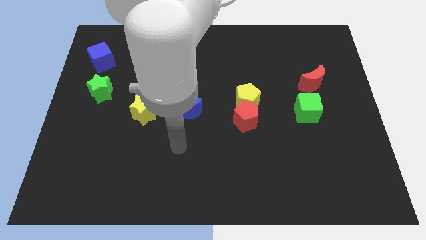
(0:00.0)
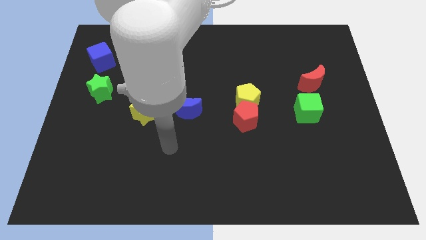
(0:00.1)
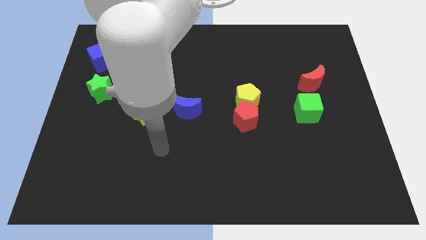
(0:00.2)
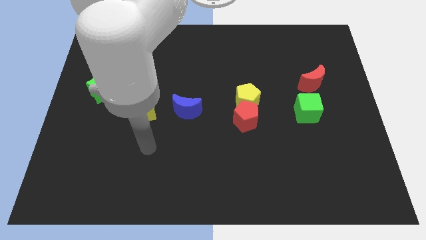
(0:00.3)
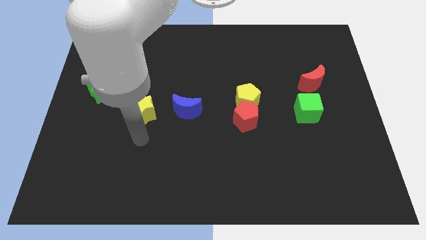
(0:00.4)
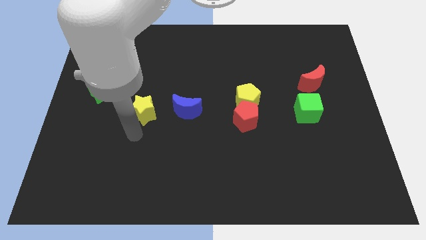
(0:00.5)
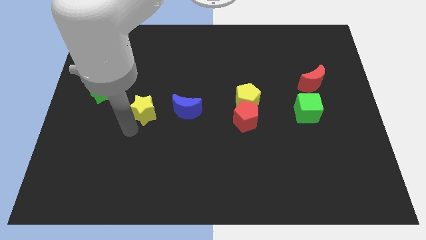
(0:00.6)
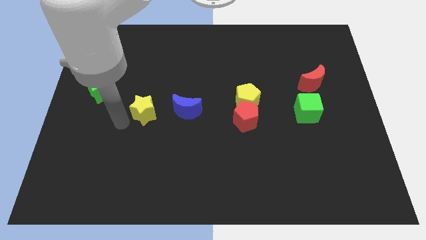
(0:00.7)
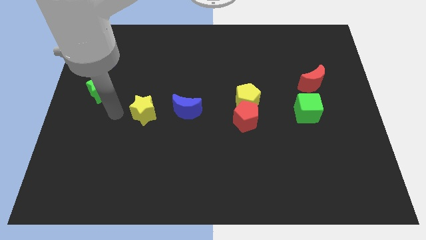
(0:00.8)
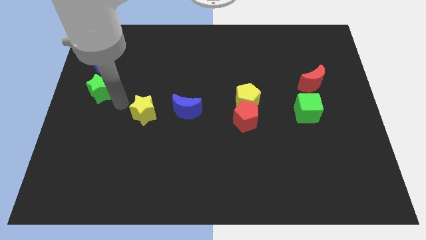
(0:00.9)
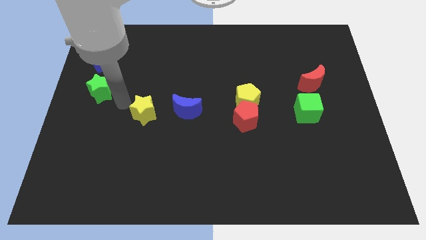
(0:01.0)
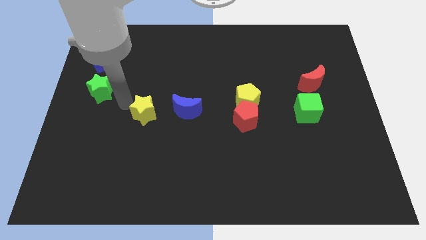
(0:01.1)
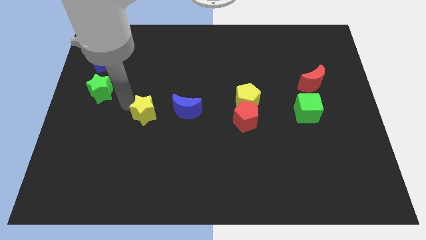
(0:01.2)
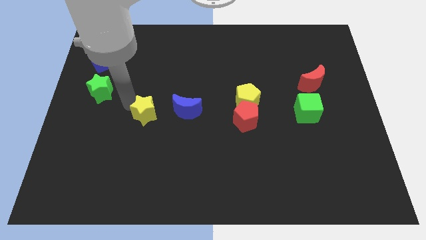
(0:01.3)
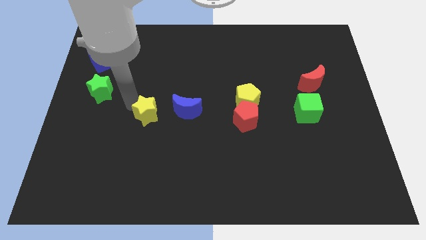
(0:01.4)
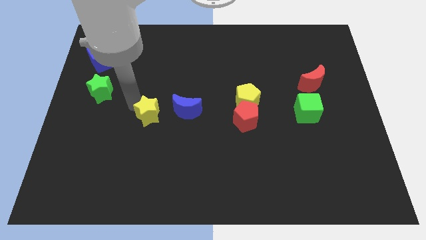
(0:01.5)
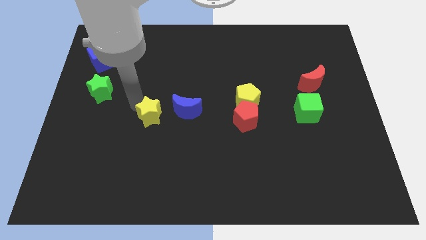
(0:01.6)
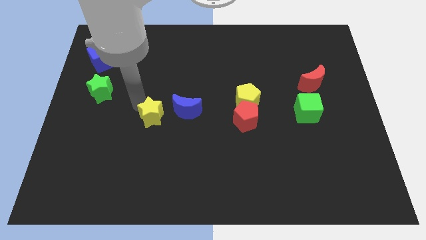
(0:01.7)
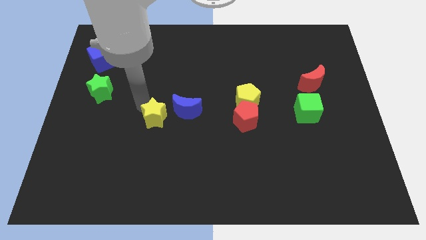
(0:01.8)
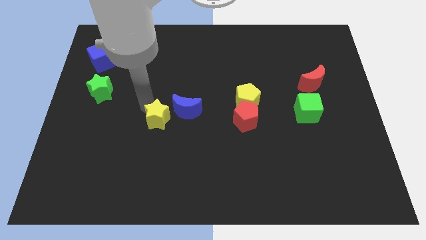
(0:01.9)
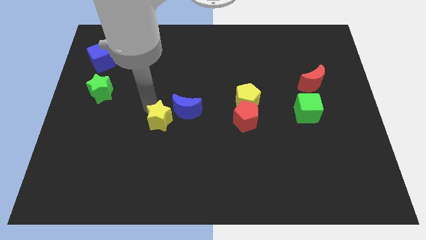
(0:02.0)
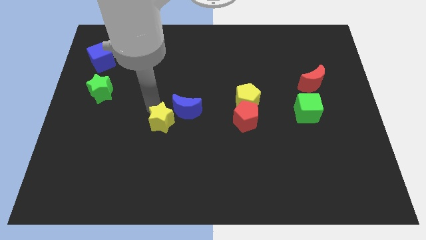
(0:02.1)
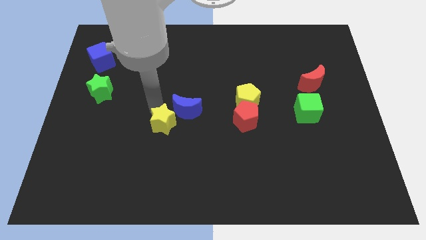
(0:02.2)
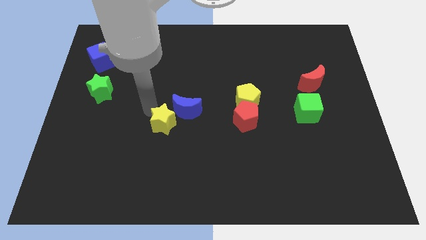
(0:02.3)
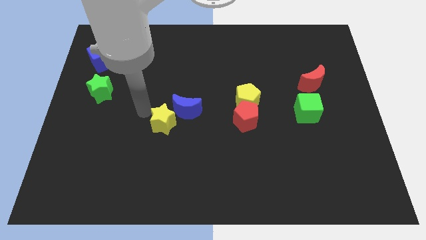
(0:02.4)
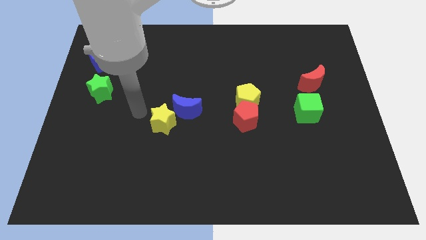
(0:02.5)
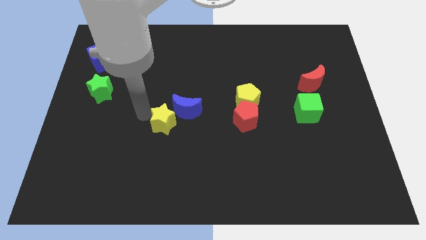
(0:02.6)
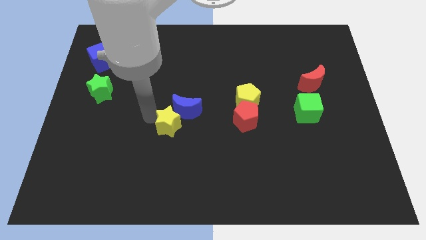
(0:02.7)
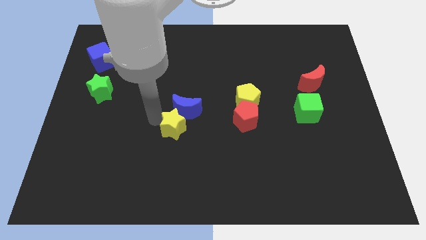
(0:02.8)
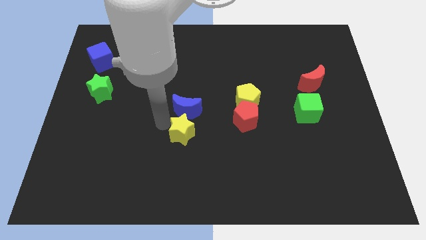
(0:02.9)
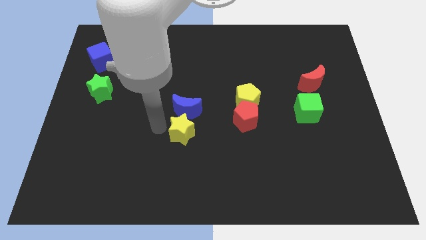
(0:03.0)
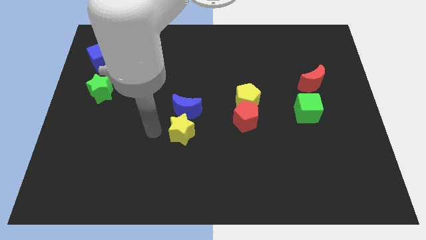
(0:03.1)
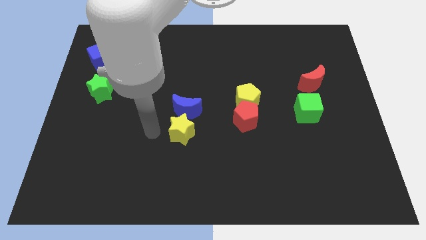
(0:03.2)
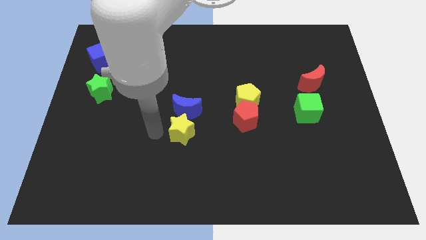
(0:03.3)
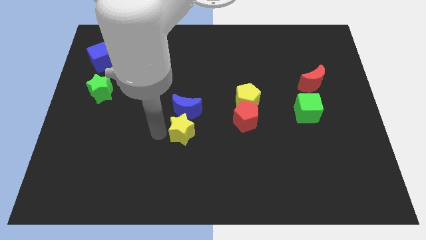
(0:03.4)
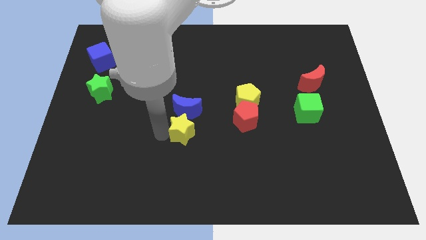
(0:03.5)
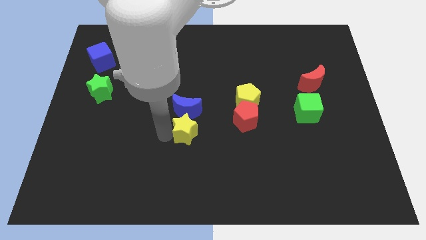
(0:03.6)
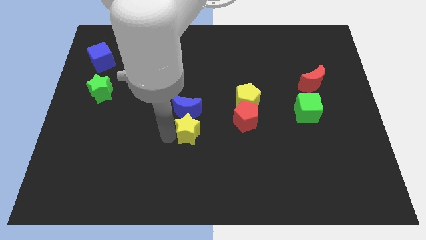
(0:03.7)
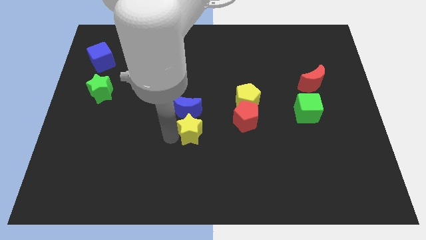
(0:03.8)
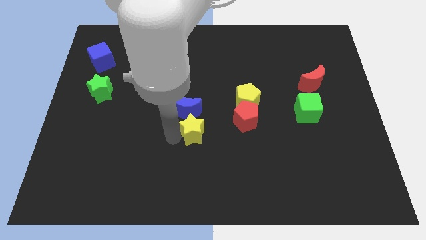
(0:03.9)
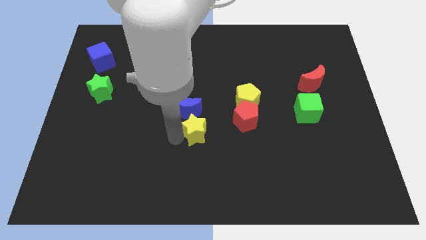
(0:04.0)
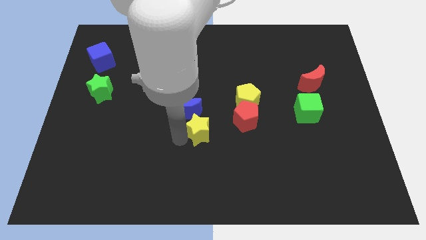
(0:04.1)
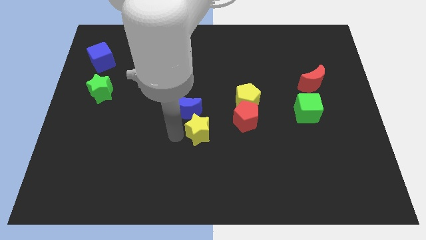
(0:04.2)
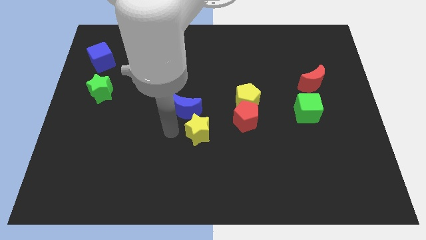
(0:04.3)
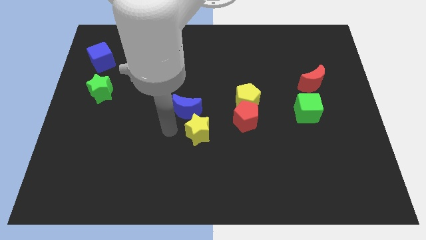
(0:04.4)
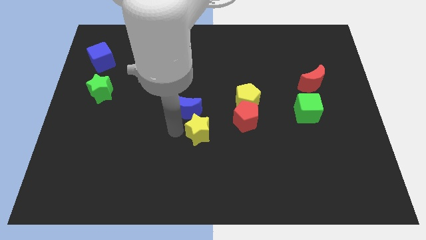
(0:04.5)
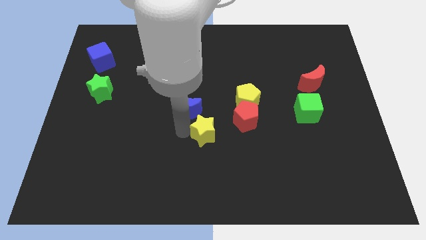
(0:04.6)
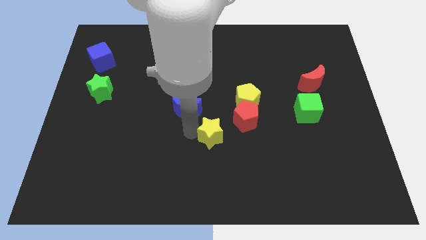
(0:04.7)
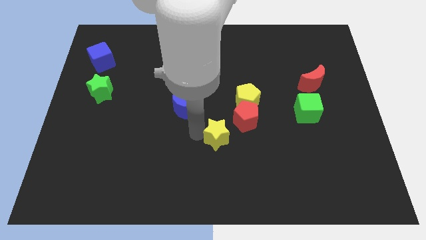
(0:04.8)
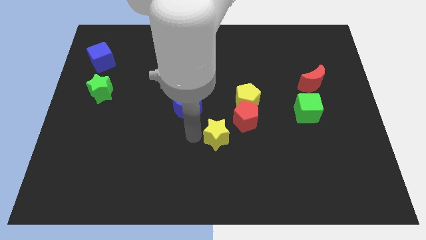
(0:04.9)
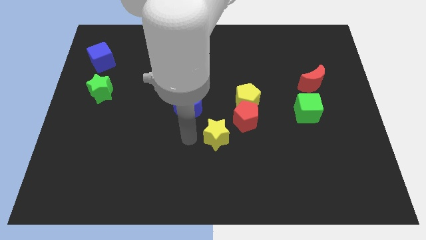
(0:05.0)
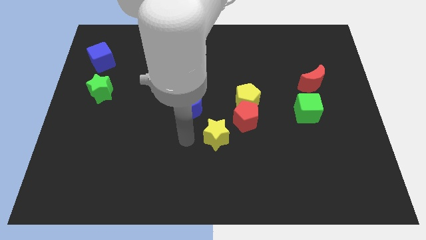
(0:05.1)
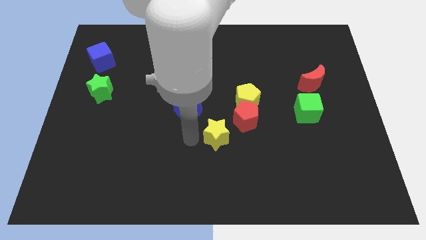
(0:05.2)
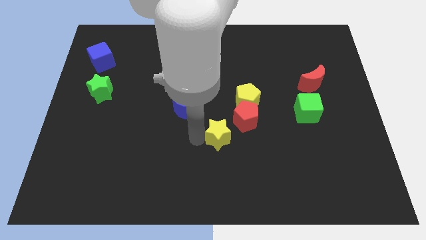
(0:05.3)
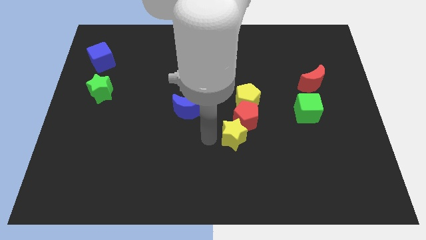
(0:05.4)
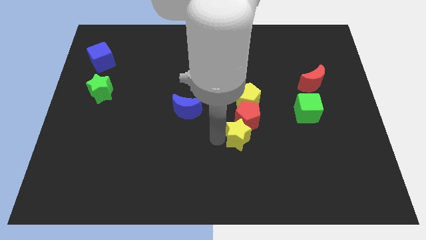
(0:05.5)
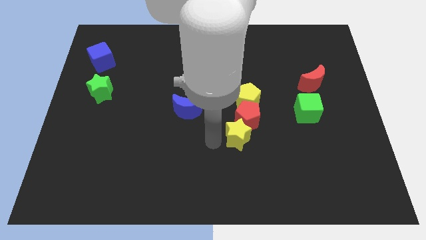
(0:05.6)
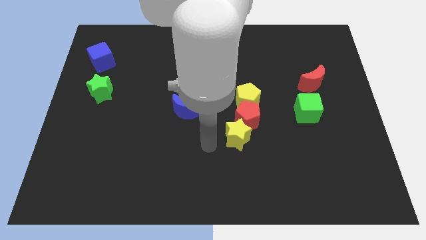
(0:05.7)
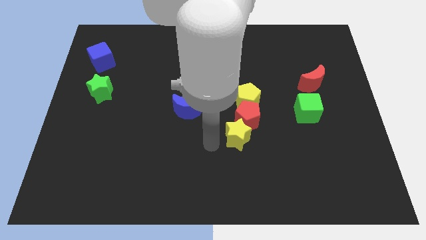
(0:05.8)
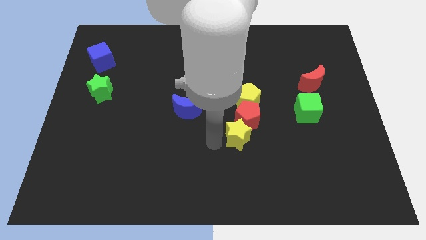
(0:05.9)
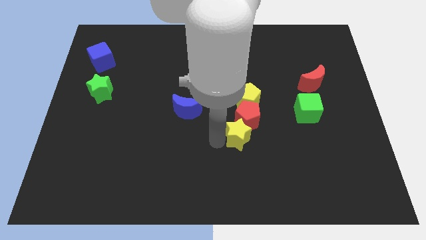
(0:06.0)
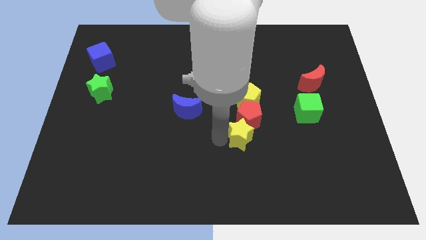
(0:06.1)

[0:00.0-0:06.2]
slide the yellow star to the right

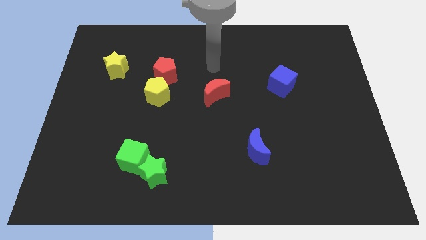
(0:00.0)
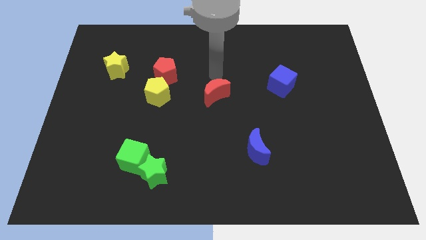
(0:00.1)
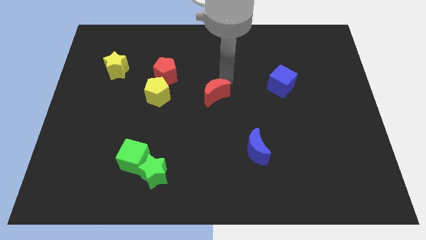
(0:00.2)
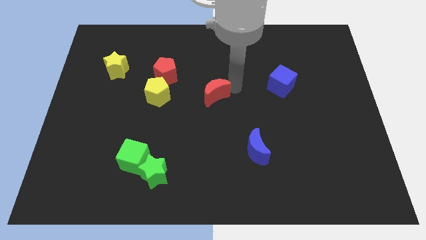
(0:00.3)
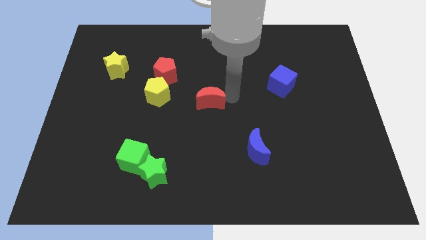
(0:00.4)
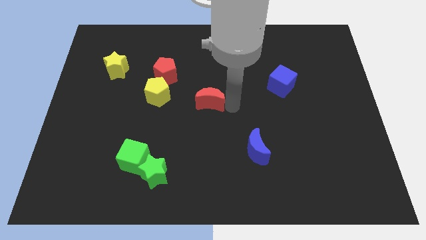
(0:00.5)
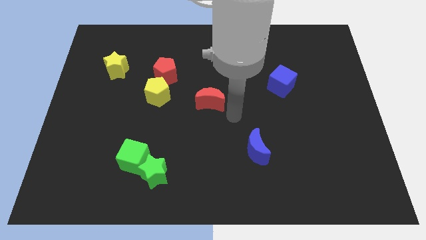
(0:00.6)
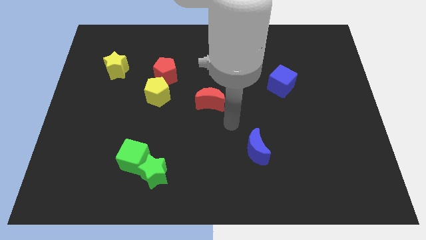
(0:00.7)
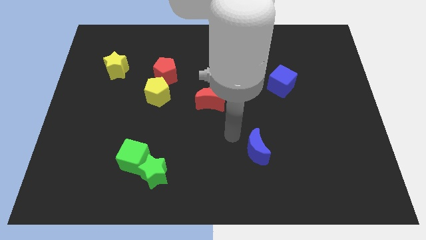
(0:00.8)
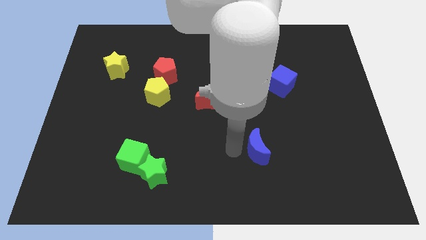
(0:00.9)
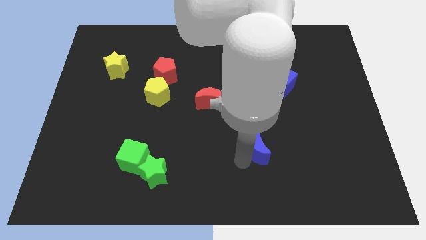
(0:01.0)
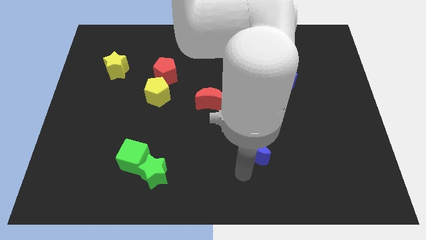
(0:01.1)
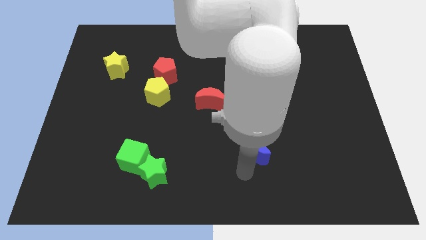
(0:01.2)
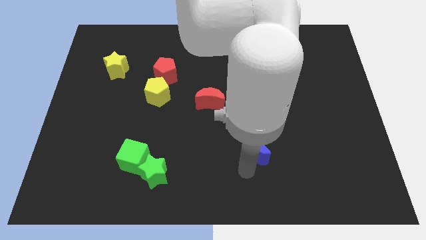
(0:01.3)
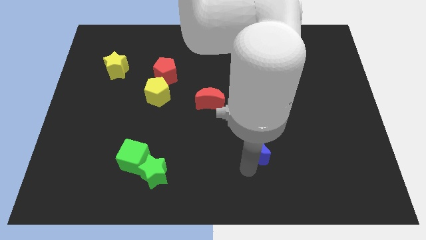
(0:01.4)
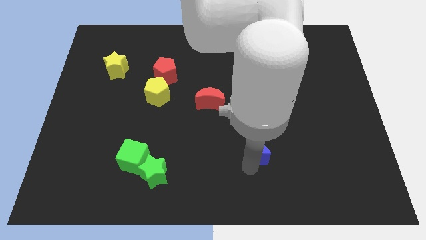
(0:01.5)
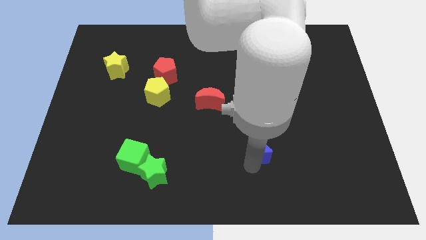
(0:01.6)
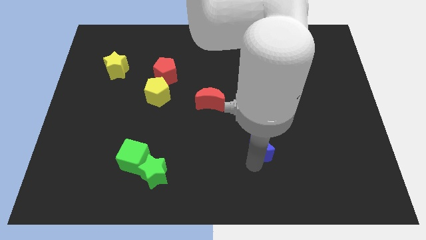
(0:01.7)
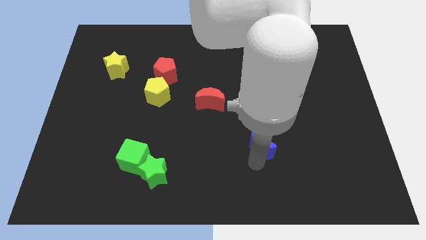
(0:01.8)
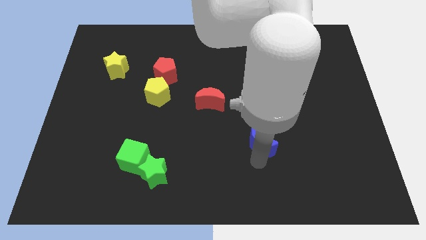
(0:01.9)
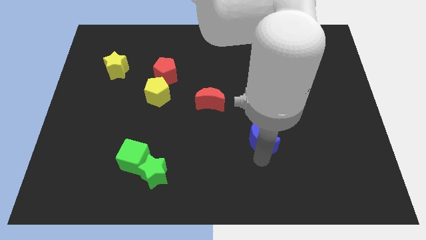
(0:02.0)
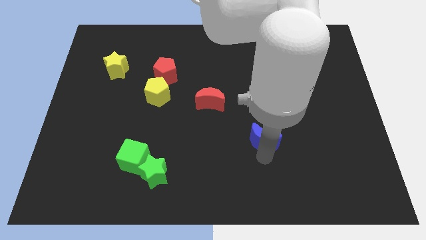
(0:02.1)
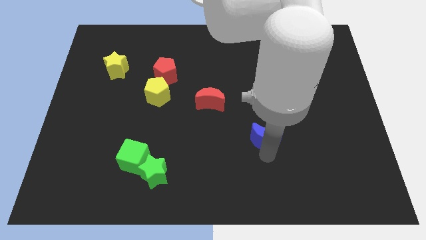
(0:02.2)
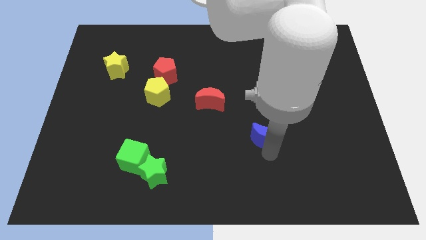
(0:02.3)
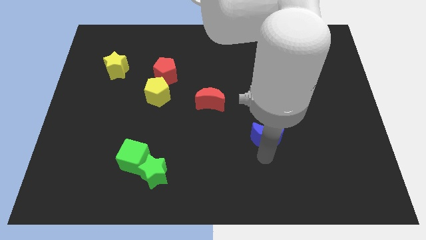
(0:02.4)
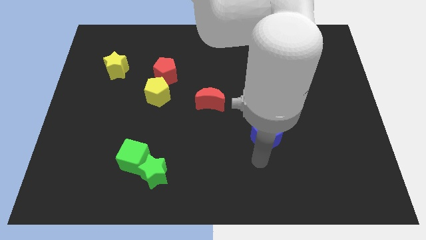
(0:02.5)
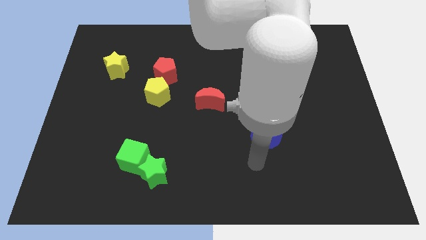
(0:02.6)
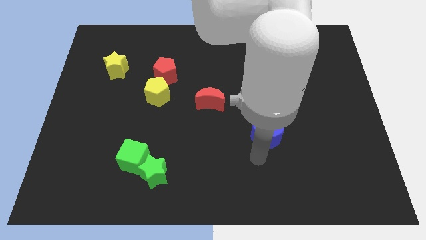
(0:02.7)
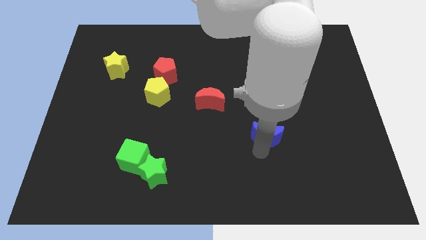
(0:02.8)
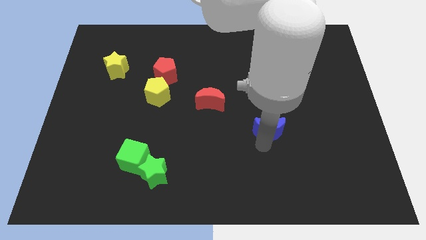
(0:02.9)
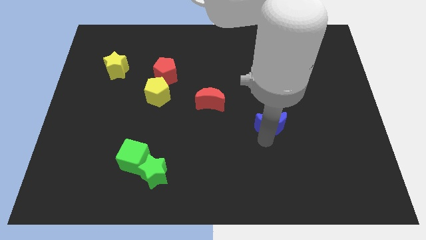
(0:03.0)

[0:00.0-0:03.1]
slightly slide the blue moon diagonally upwards and right
